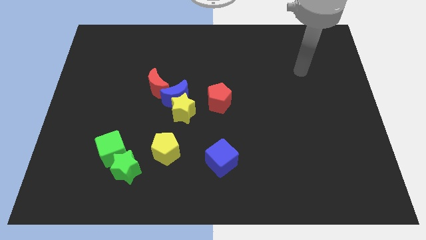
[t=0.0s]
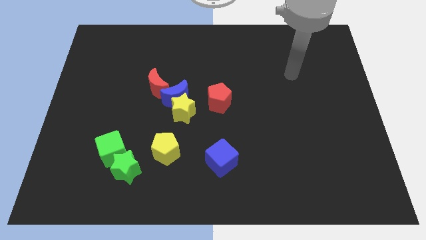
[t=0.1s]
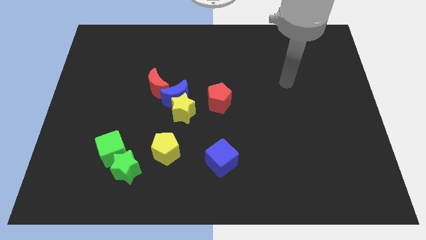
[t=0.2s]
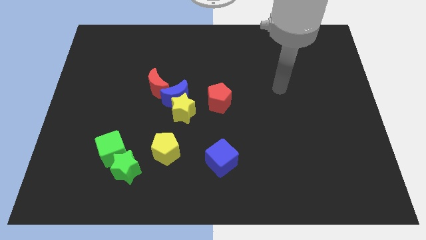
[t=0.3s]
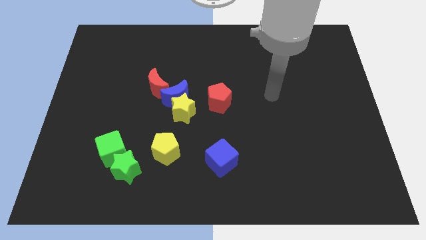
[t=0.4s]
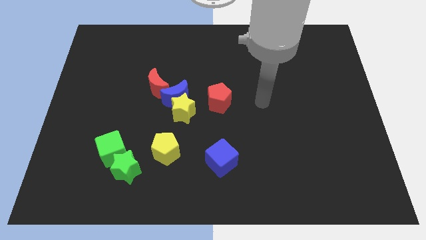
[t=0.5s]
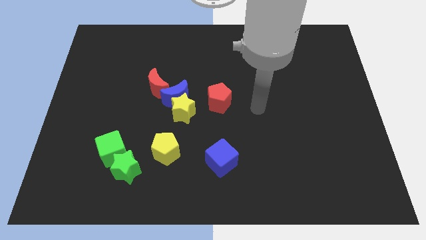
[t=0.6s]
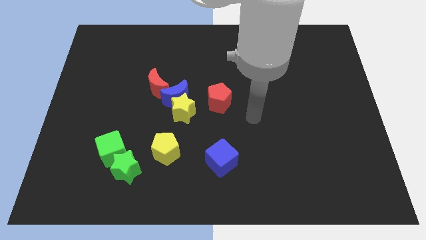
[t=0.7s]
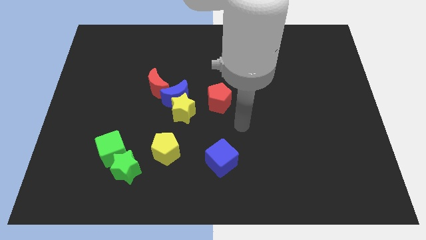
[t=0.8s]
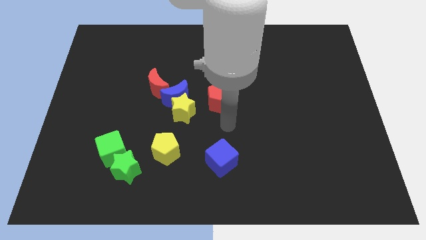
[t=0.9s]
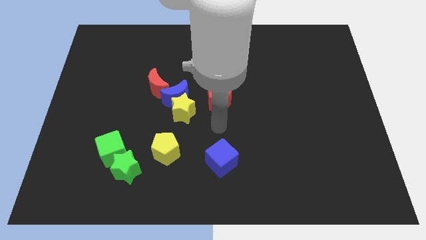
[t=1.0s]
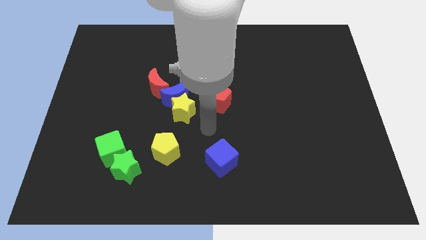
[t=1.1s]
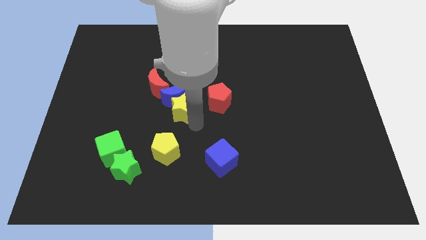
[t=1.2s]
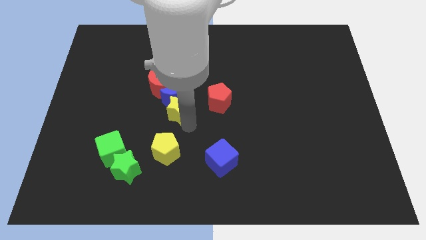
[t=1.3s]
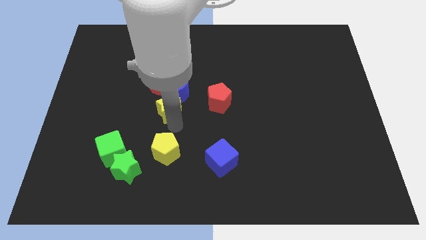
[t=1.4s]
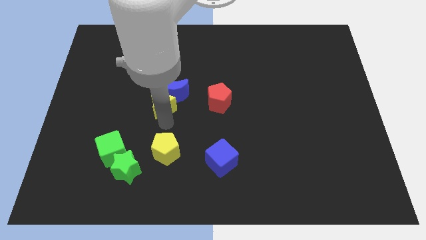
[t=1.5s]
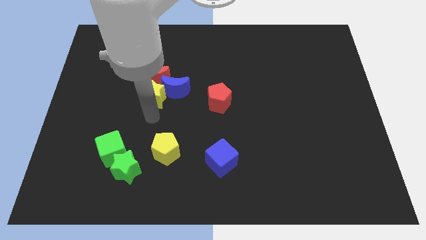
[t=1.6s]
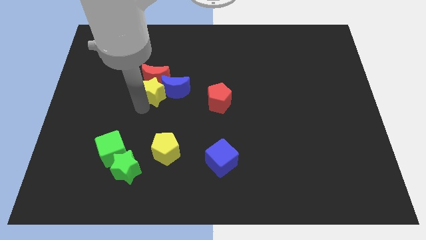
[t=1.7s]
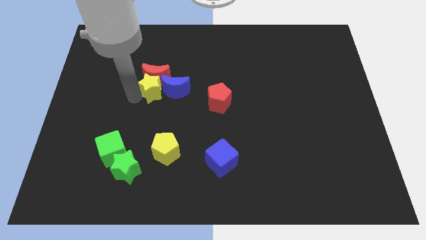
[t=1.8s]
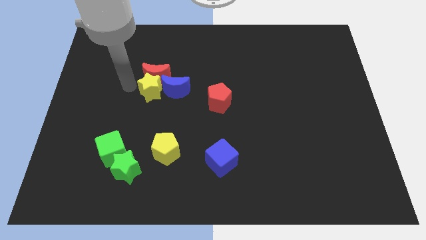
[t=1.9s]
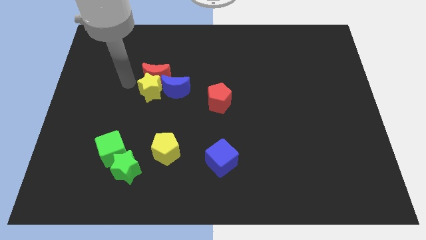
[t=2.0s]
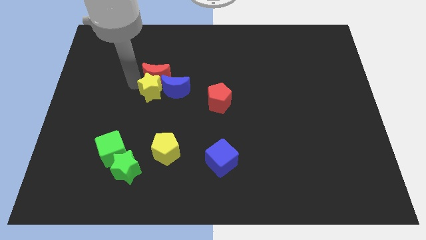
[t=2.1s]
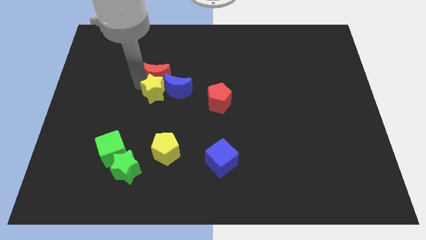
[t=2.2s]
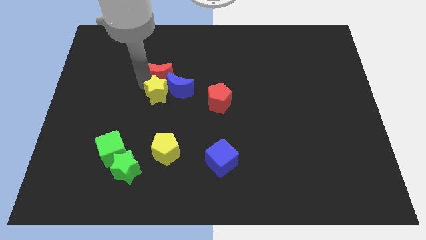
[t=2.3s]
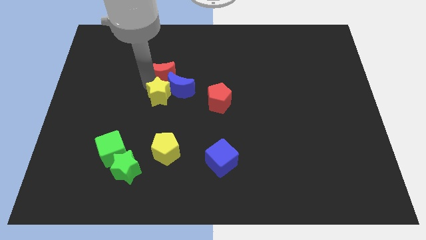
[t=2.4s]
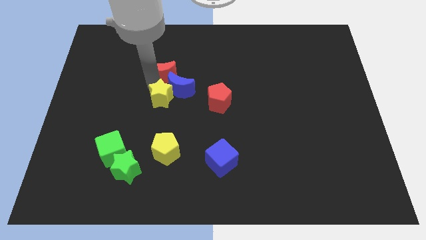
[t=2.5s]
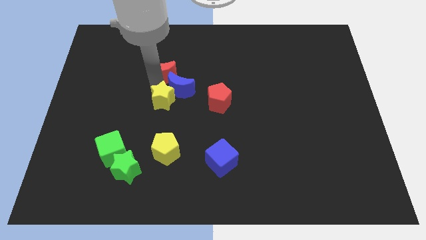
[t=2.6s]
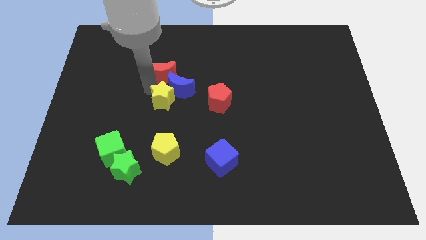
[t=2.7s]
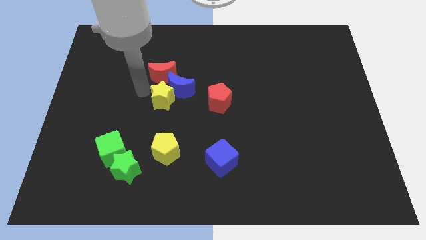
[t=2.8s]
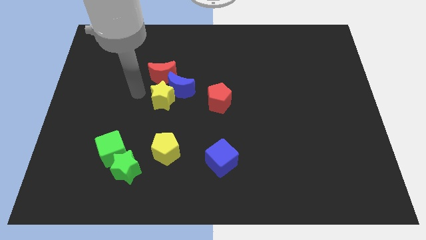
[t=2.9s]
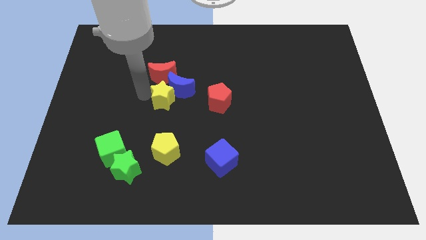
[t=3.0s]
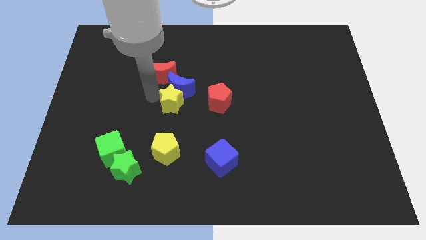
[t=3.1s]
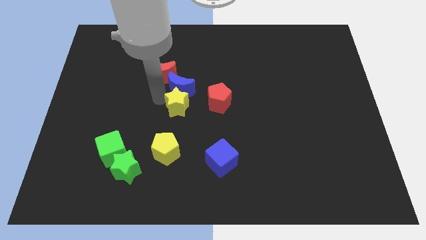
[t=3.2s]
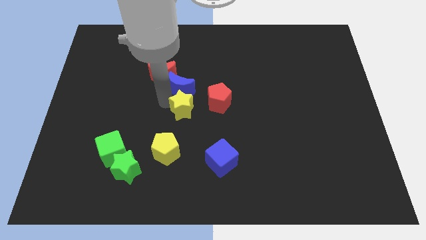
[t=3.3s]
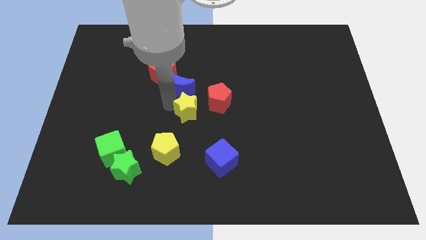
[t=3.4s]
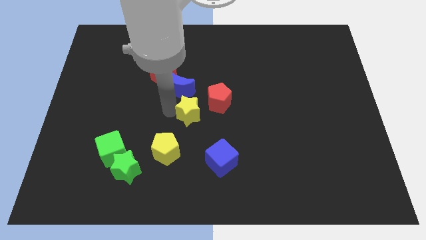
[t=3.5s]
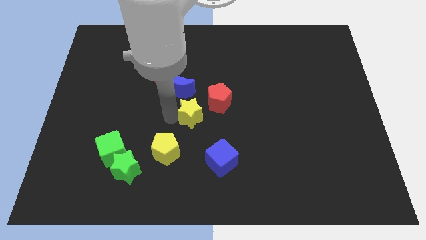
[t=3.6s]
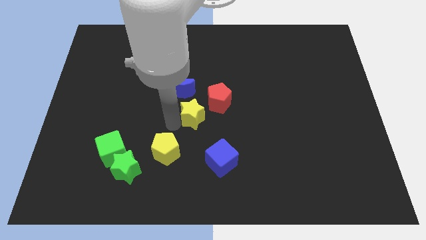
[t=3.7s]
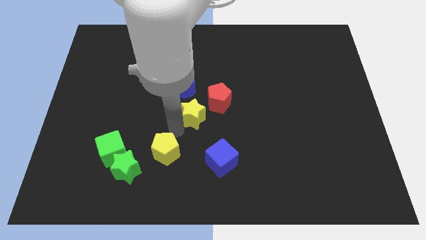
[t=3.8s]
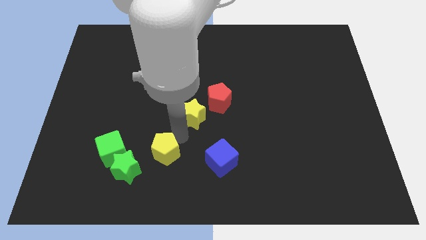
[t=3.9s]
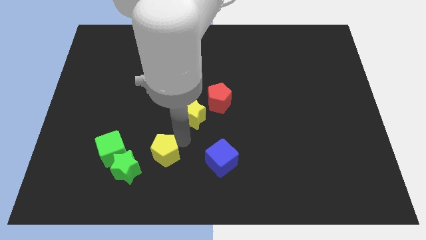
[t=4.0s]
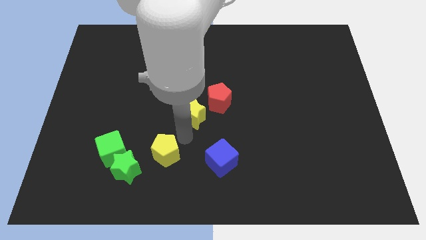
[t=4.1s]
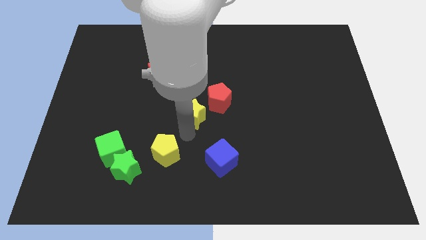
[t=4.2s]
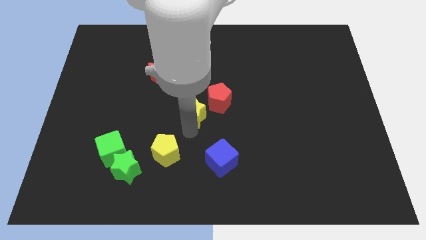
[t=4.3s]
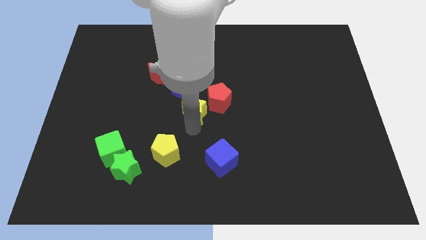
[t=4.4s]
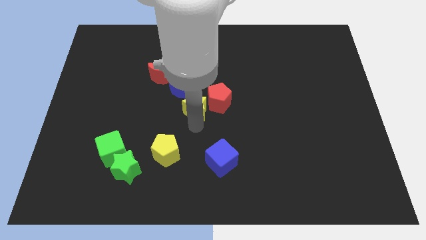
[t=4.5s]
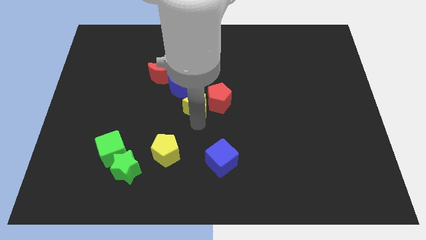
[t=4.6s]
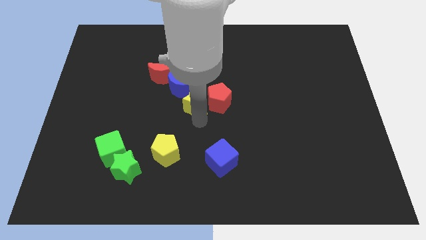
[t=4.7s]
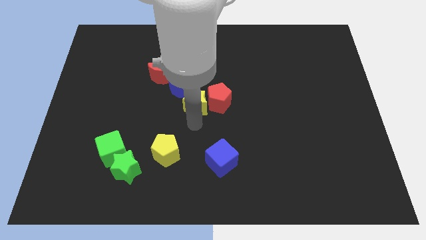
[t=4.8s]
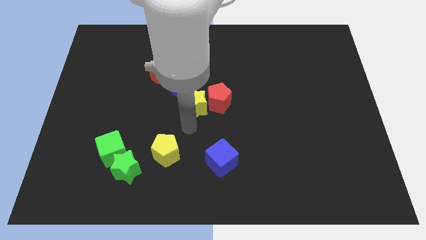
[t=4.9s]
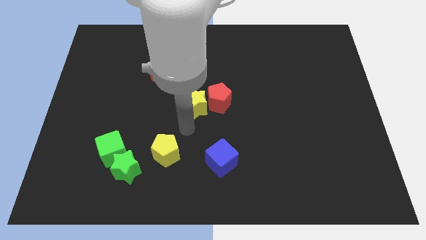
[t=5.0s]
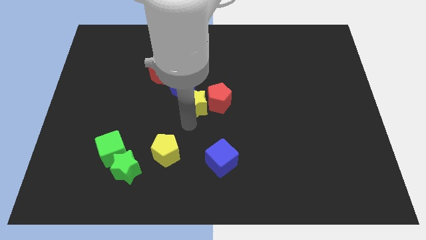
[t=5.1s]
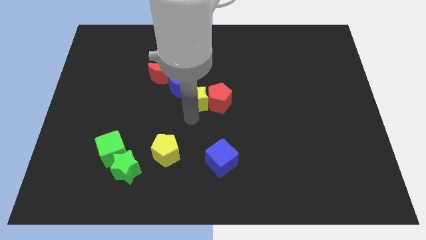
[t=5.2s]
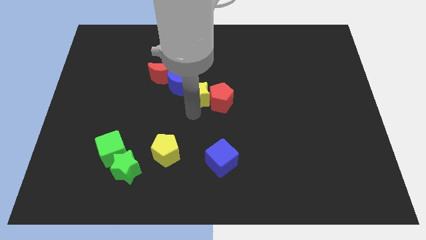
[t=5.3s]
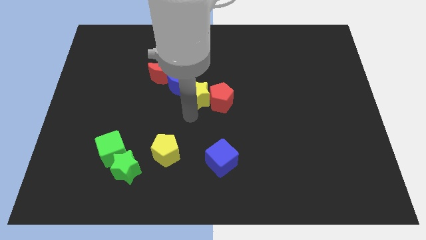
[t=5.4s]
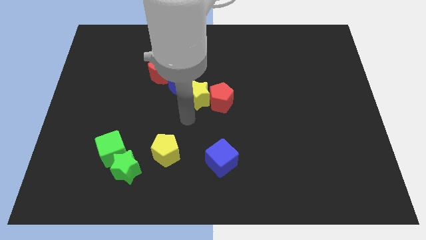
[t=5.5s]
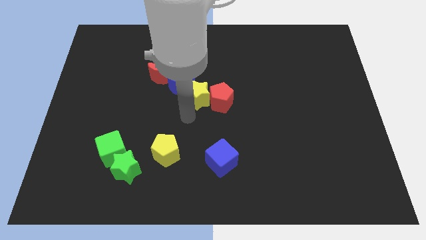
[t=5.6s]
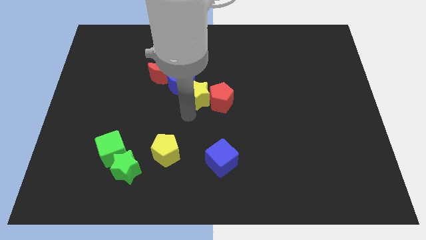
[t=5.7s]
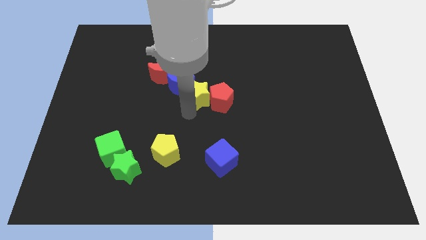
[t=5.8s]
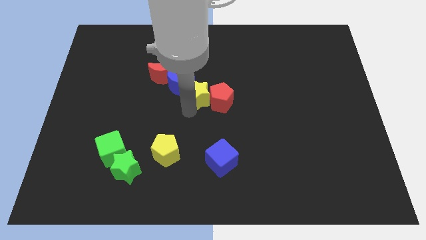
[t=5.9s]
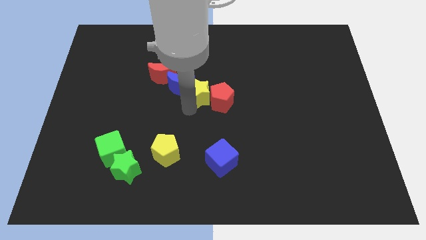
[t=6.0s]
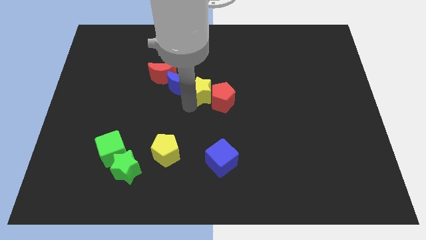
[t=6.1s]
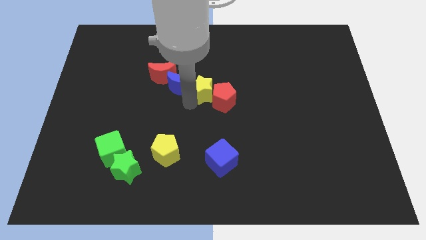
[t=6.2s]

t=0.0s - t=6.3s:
slightly move the yellow star up and to the right

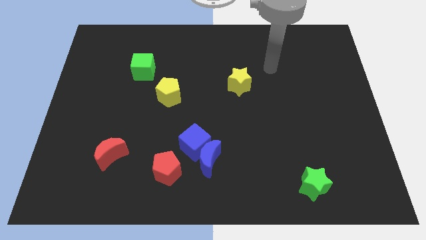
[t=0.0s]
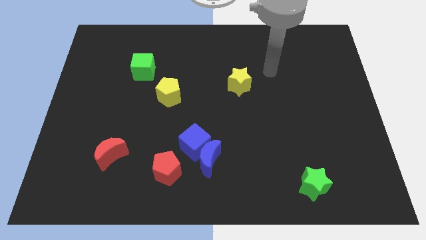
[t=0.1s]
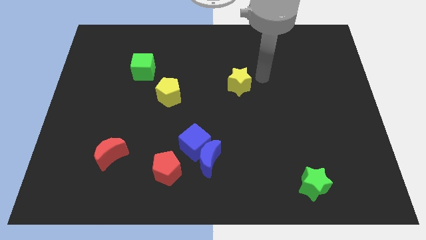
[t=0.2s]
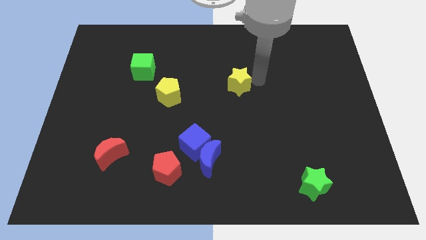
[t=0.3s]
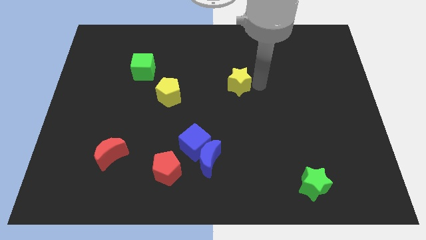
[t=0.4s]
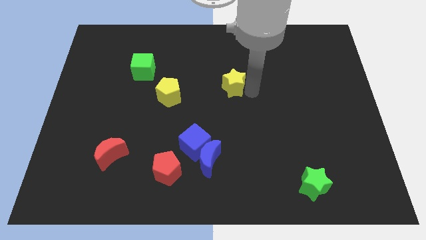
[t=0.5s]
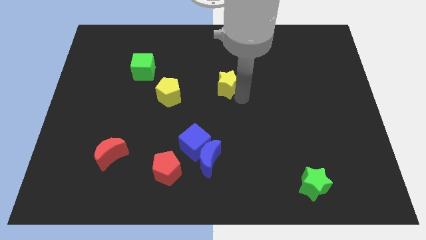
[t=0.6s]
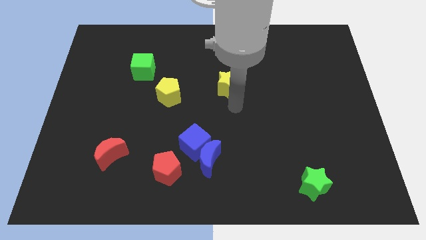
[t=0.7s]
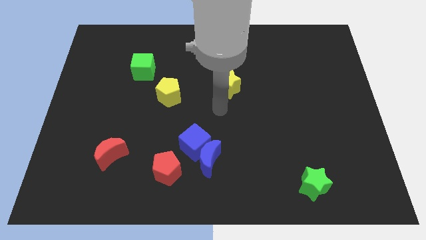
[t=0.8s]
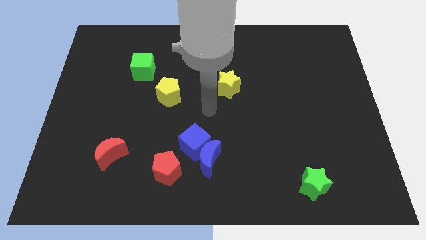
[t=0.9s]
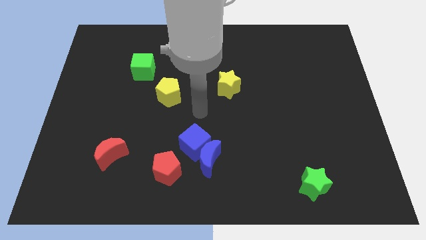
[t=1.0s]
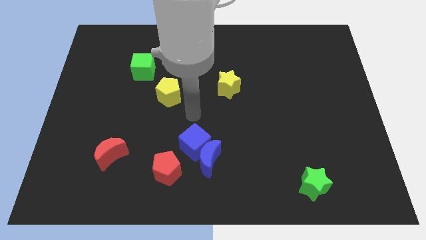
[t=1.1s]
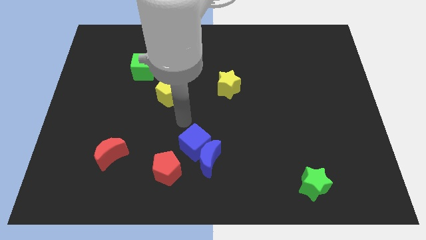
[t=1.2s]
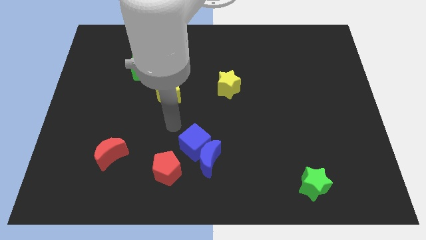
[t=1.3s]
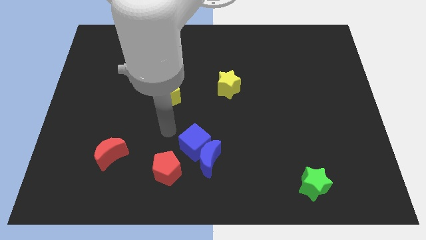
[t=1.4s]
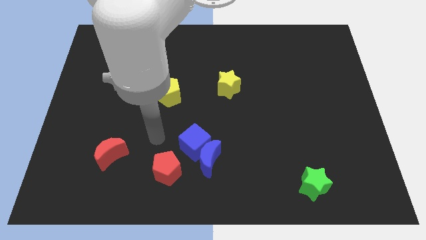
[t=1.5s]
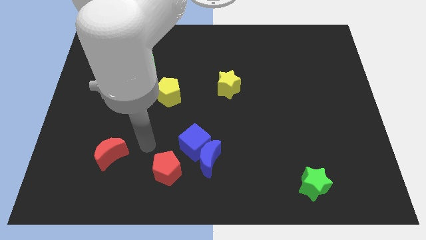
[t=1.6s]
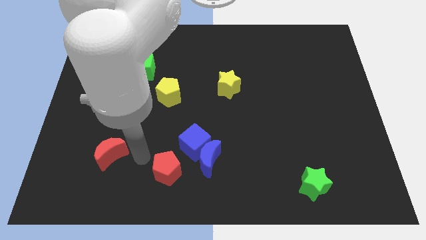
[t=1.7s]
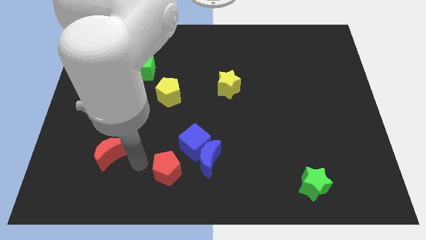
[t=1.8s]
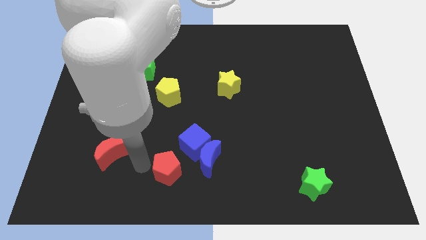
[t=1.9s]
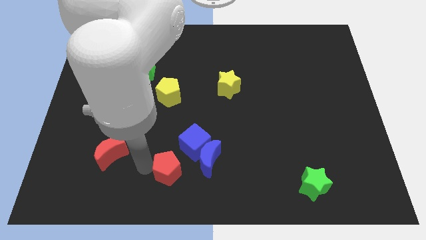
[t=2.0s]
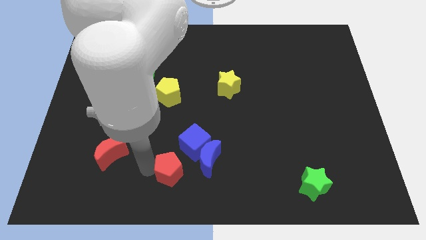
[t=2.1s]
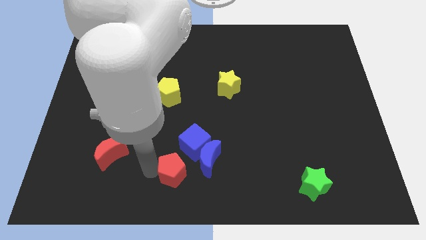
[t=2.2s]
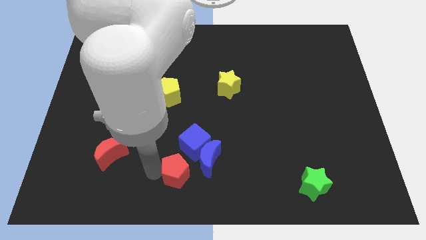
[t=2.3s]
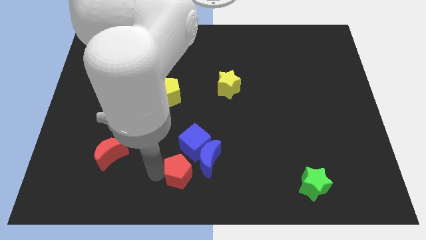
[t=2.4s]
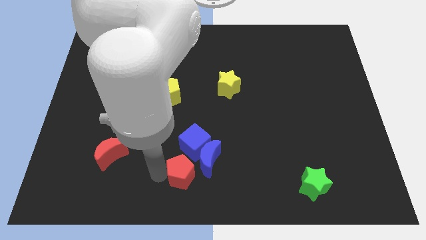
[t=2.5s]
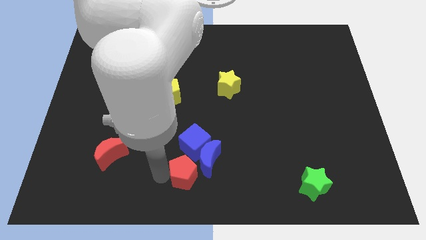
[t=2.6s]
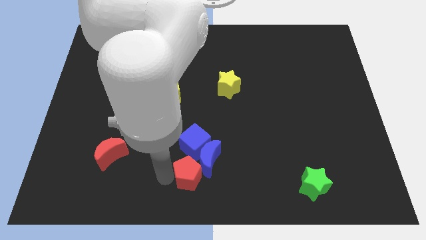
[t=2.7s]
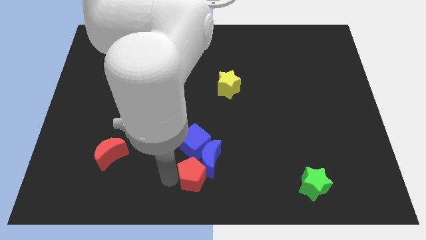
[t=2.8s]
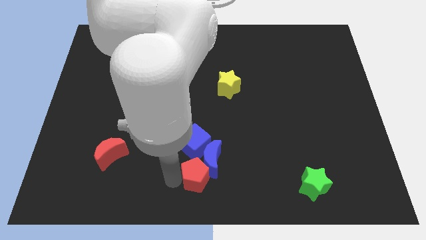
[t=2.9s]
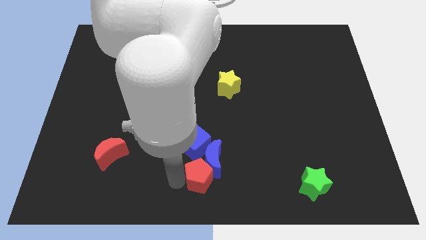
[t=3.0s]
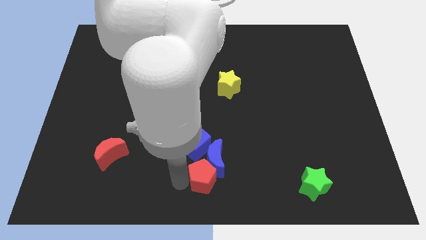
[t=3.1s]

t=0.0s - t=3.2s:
move the red pentagon slightly to the right
